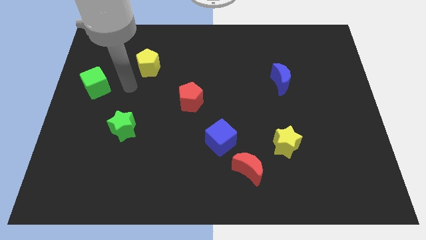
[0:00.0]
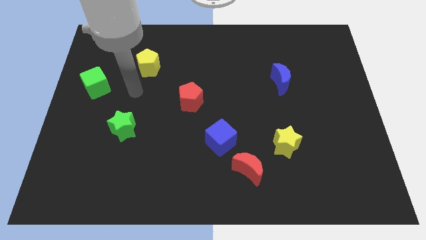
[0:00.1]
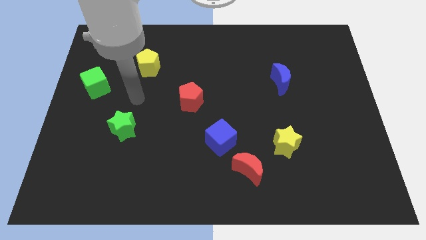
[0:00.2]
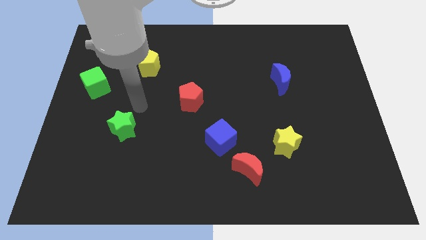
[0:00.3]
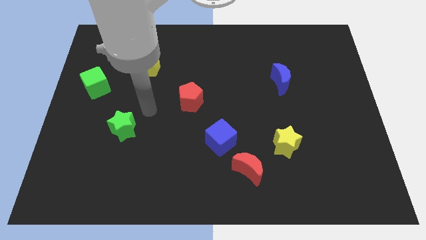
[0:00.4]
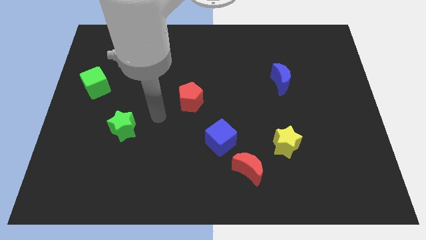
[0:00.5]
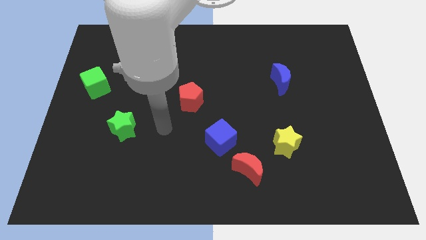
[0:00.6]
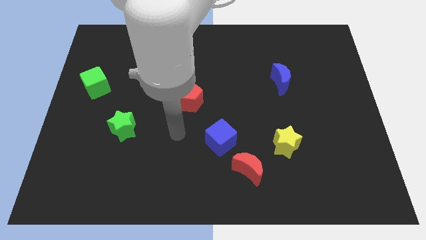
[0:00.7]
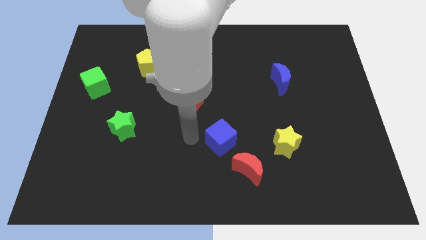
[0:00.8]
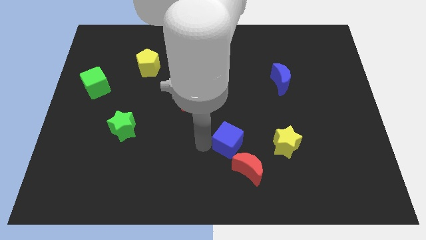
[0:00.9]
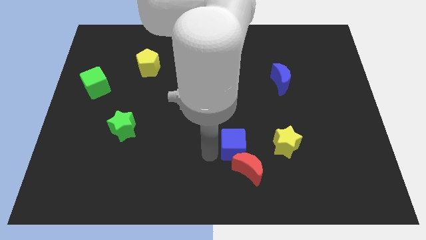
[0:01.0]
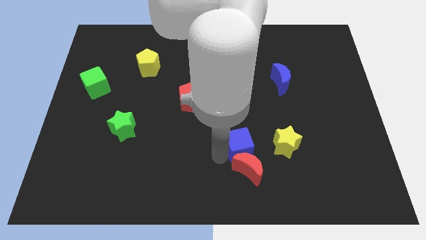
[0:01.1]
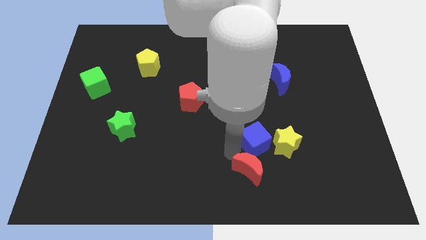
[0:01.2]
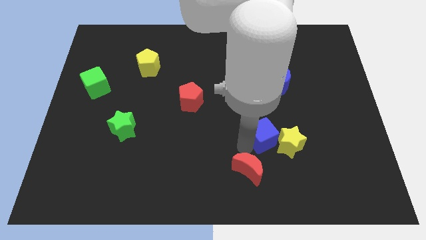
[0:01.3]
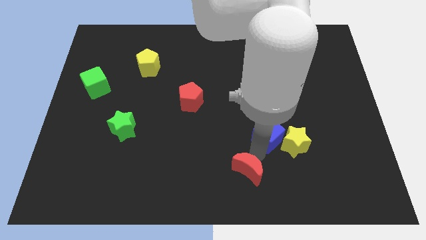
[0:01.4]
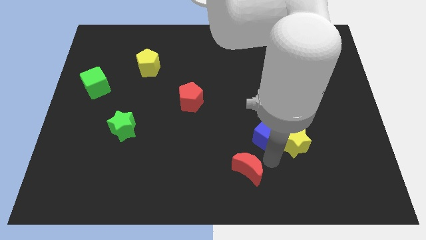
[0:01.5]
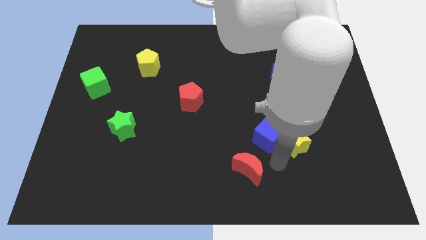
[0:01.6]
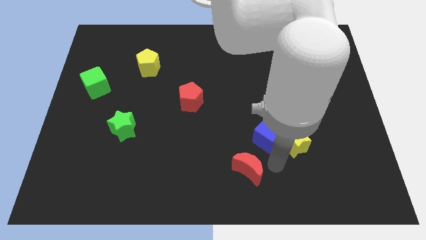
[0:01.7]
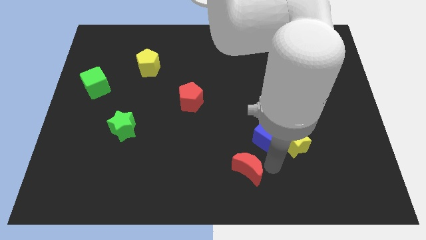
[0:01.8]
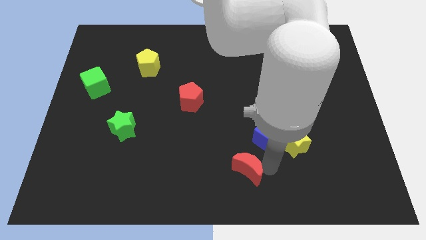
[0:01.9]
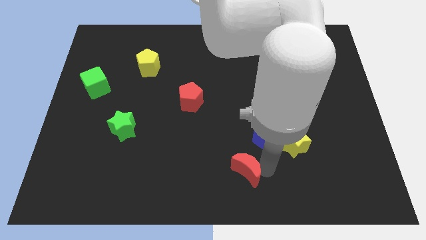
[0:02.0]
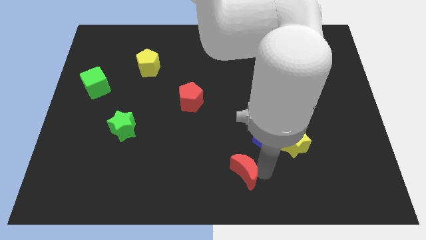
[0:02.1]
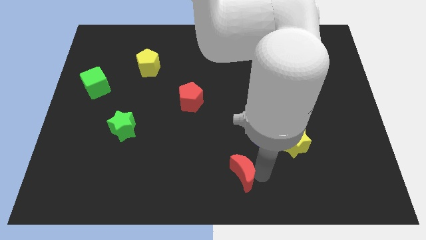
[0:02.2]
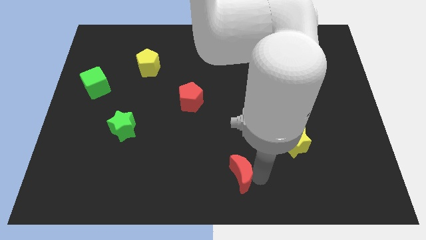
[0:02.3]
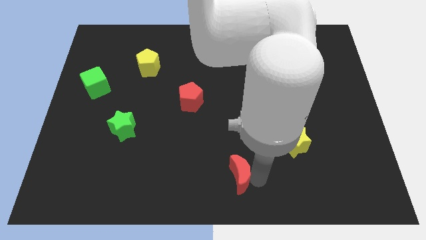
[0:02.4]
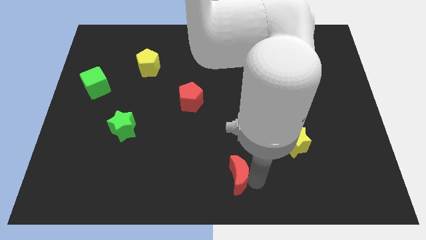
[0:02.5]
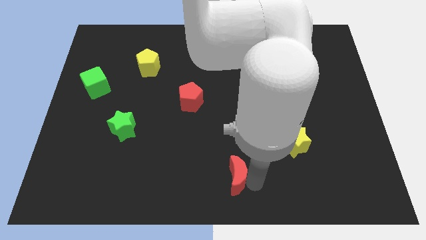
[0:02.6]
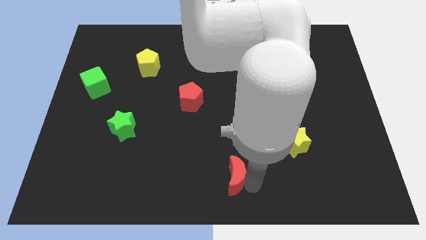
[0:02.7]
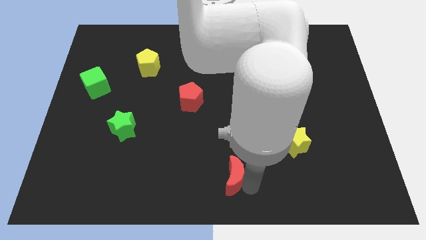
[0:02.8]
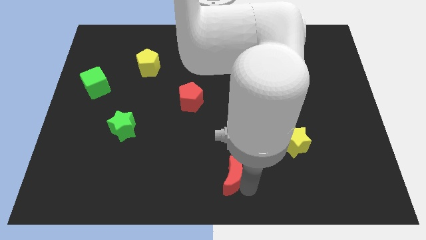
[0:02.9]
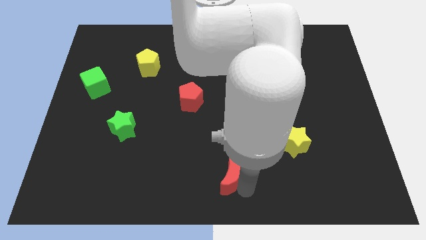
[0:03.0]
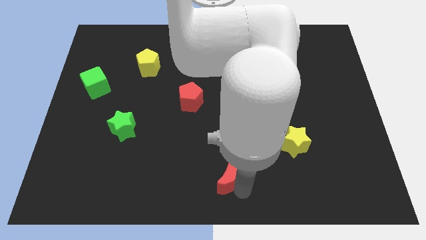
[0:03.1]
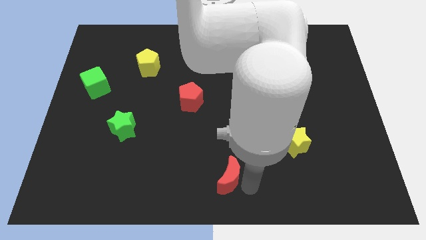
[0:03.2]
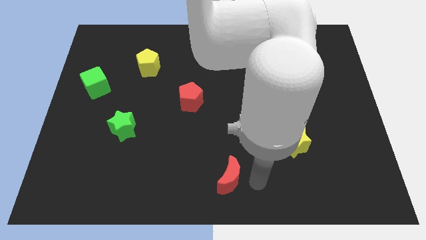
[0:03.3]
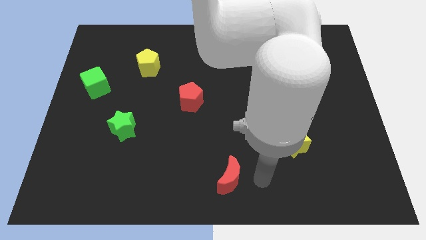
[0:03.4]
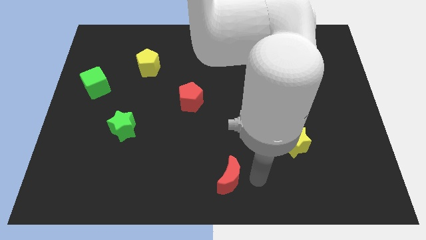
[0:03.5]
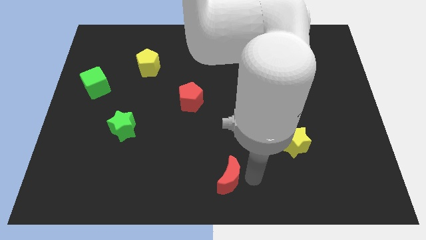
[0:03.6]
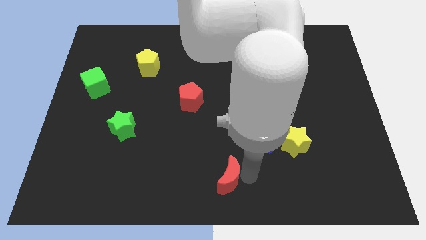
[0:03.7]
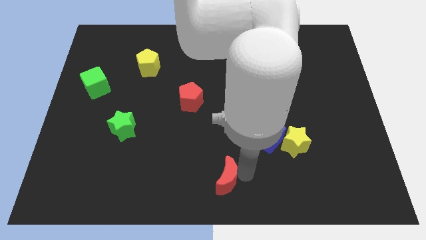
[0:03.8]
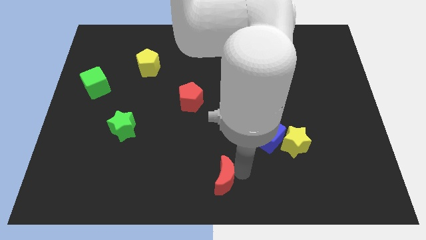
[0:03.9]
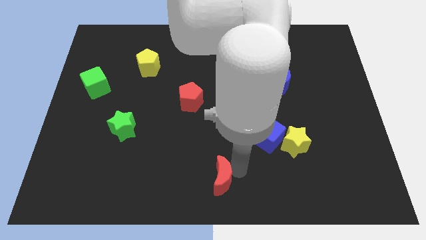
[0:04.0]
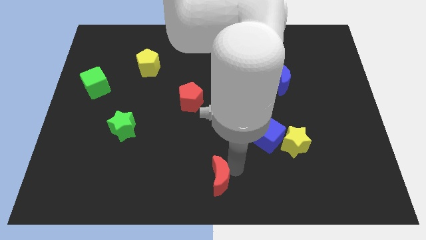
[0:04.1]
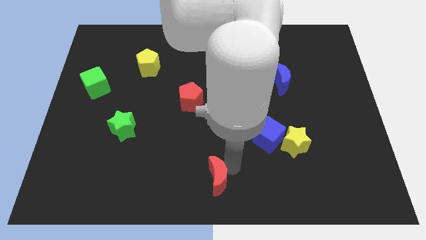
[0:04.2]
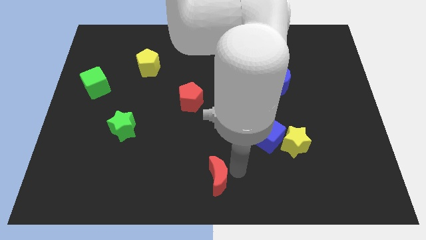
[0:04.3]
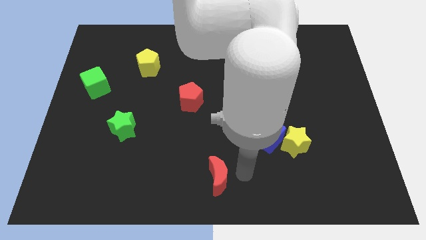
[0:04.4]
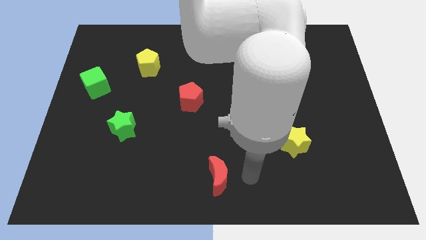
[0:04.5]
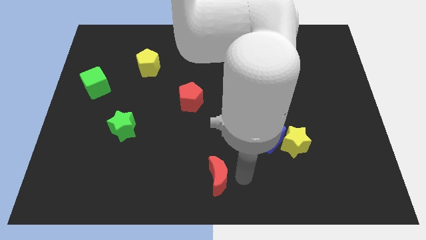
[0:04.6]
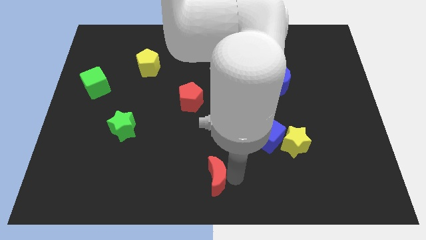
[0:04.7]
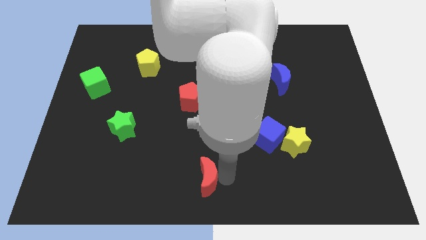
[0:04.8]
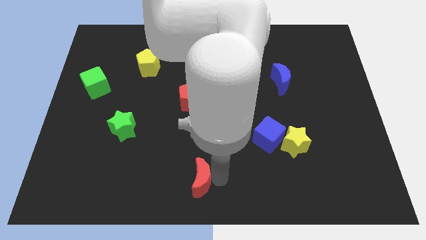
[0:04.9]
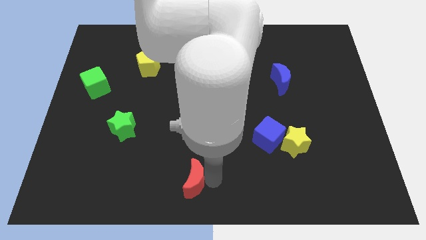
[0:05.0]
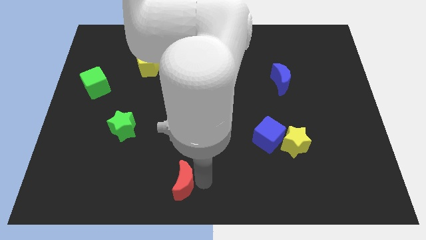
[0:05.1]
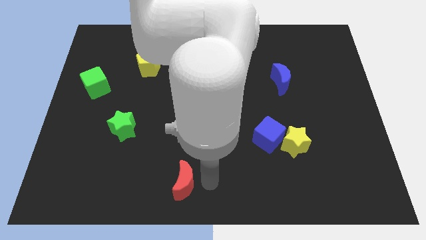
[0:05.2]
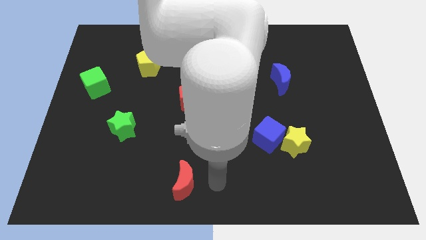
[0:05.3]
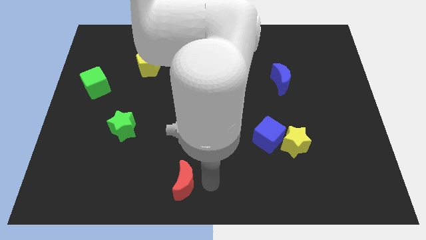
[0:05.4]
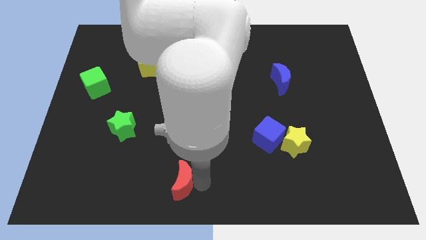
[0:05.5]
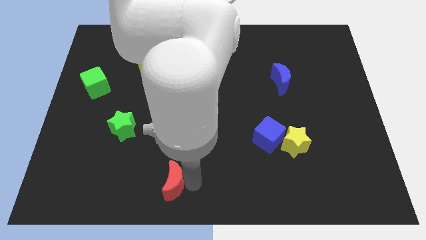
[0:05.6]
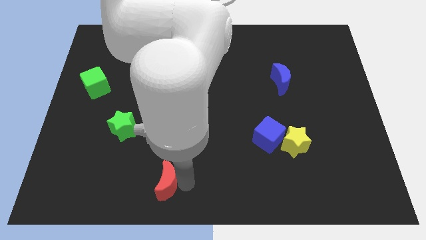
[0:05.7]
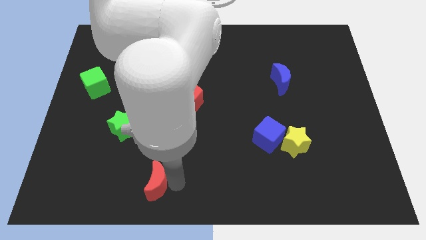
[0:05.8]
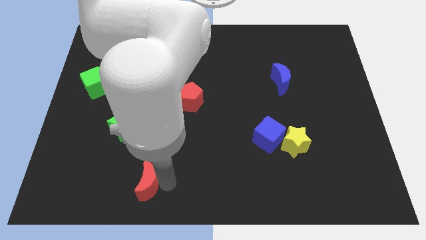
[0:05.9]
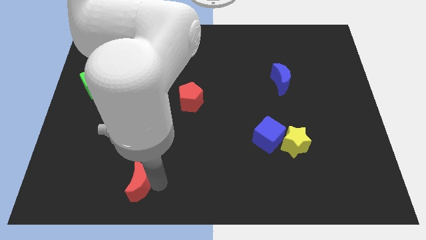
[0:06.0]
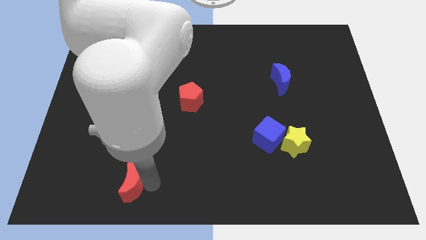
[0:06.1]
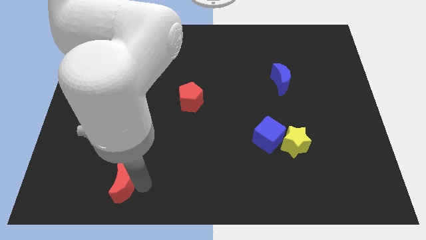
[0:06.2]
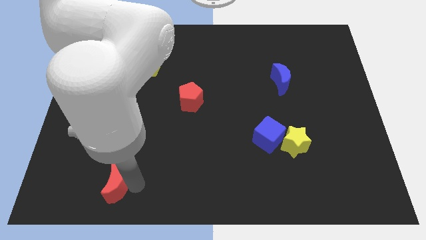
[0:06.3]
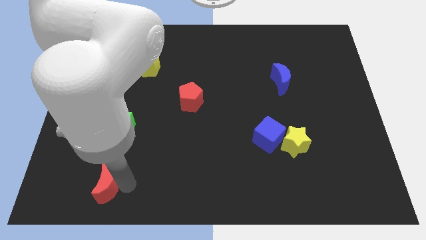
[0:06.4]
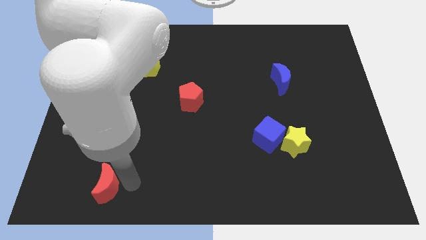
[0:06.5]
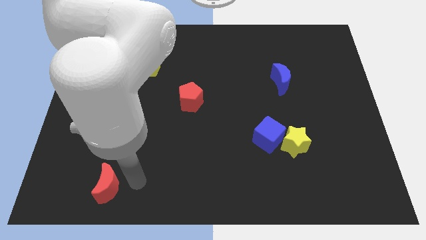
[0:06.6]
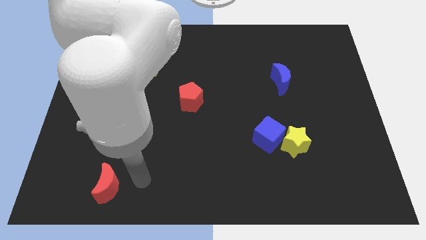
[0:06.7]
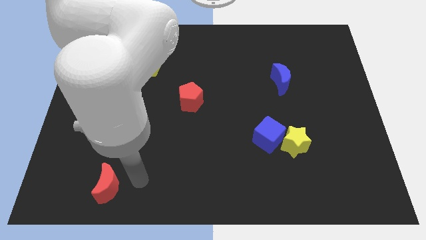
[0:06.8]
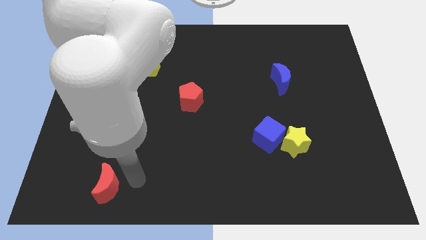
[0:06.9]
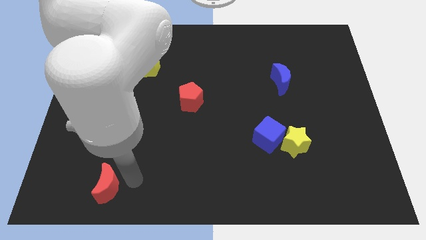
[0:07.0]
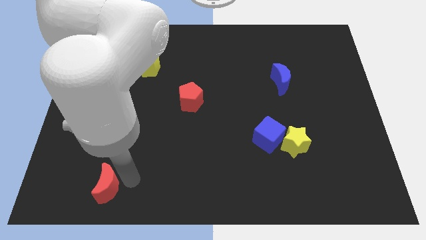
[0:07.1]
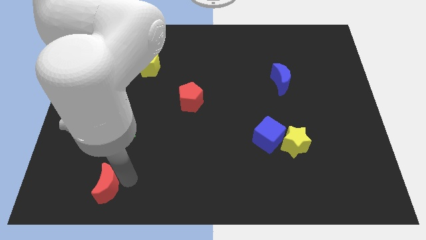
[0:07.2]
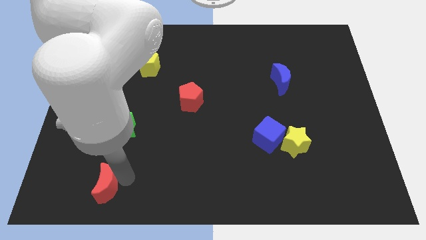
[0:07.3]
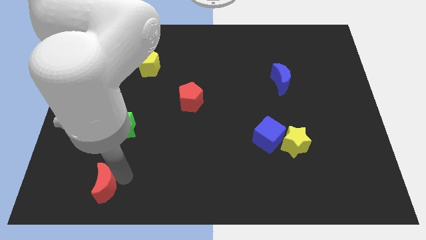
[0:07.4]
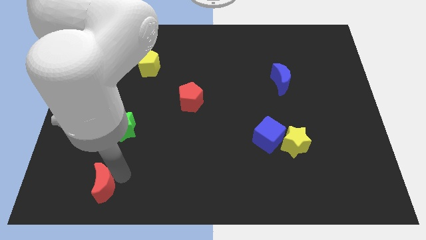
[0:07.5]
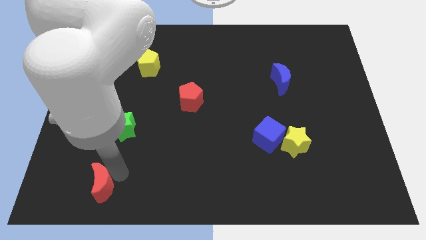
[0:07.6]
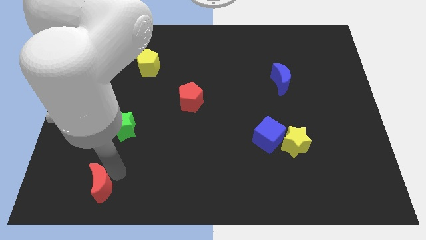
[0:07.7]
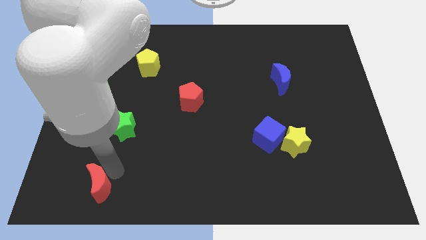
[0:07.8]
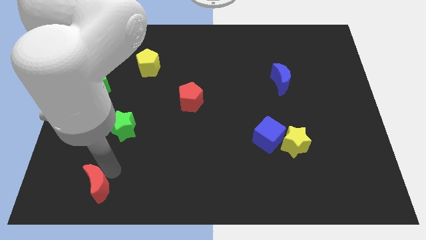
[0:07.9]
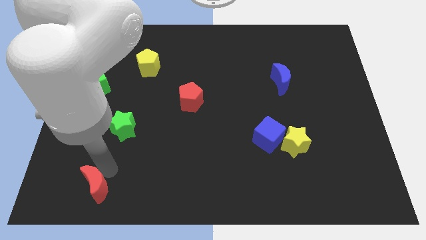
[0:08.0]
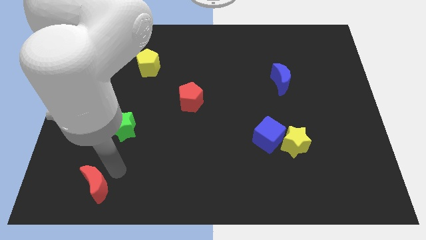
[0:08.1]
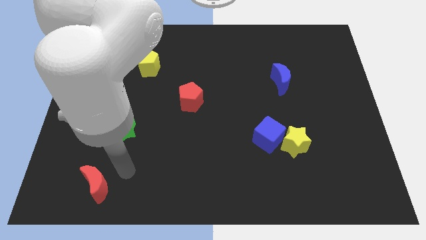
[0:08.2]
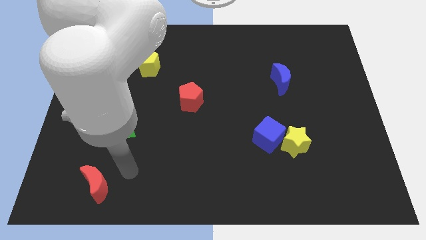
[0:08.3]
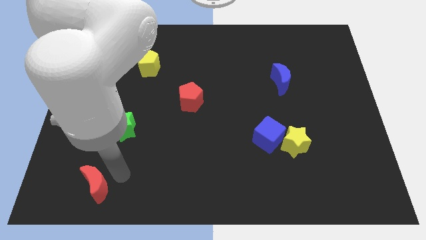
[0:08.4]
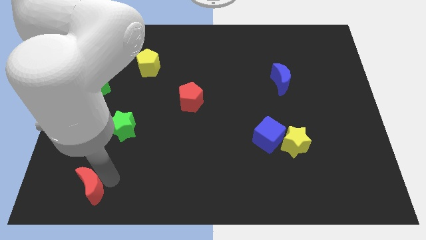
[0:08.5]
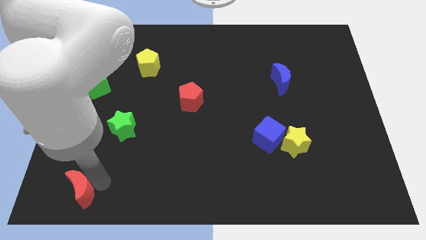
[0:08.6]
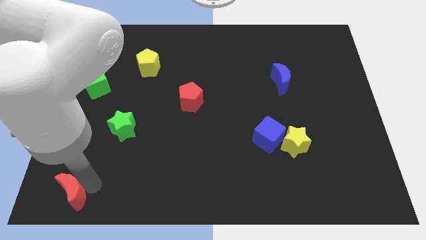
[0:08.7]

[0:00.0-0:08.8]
slide the red moon to the bottom left corner
